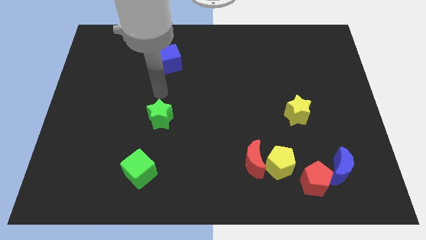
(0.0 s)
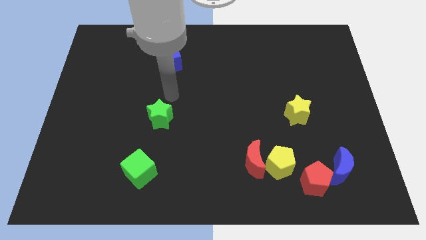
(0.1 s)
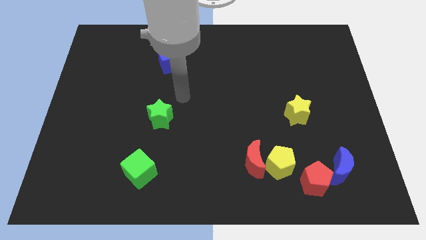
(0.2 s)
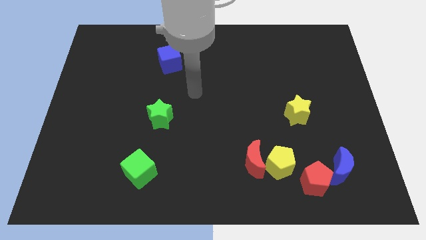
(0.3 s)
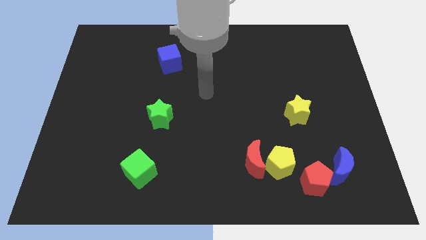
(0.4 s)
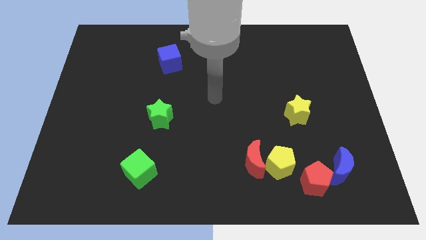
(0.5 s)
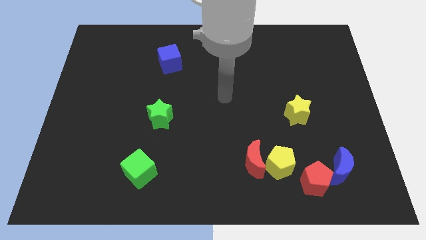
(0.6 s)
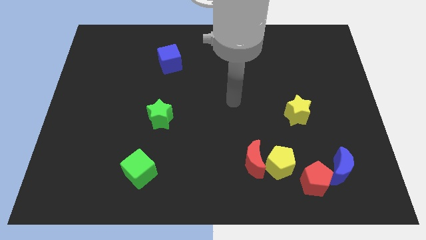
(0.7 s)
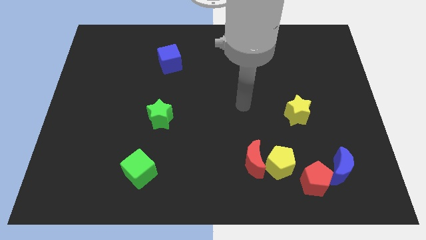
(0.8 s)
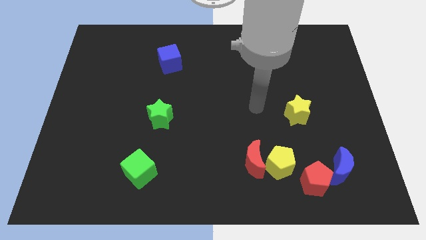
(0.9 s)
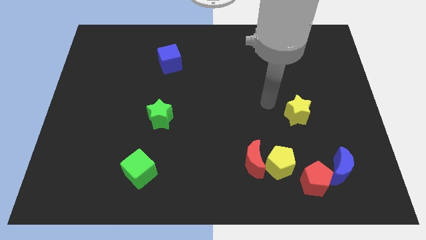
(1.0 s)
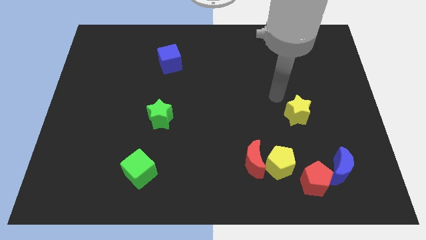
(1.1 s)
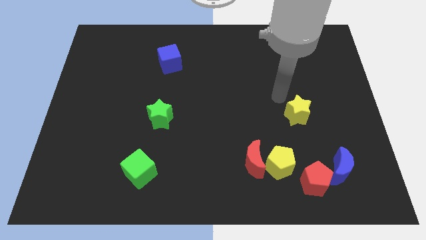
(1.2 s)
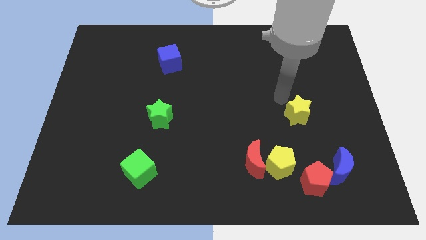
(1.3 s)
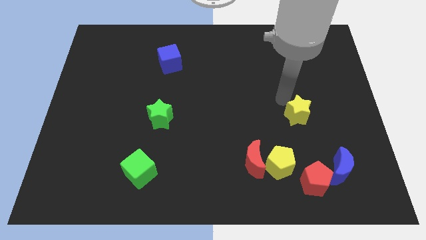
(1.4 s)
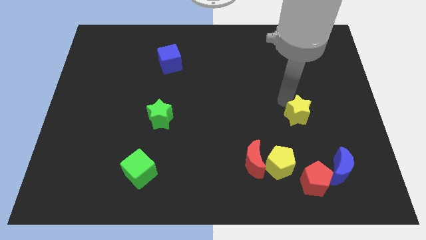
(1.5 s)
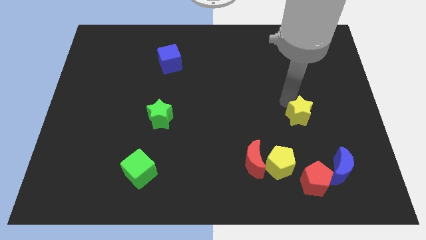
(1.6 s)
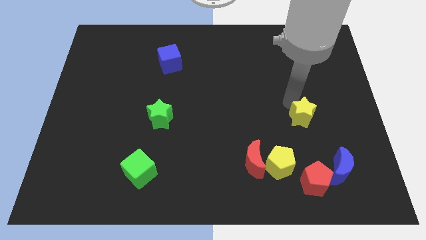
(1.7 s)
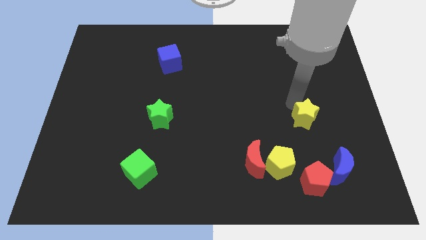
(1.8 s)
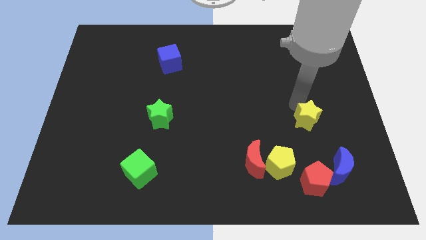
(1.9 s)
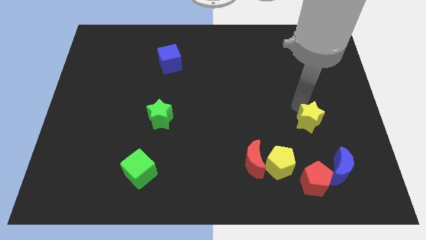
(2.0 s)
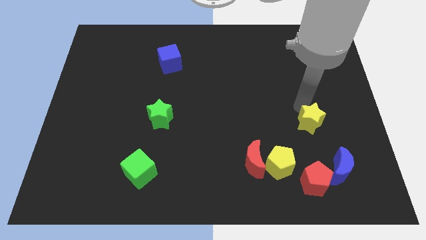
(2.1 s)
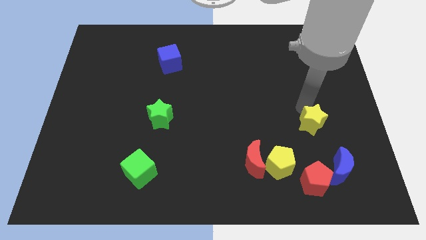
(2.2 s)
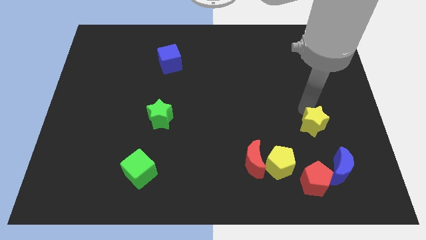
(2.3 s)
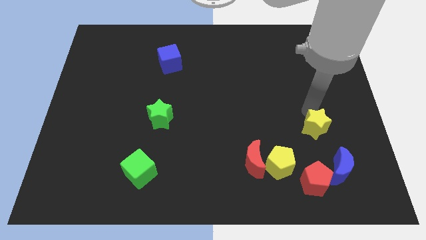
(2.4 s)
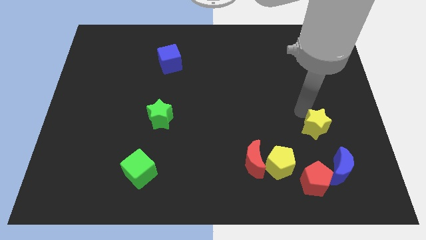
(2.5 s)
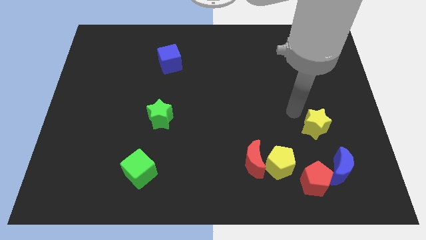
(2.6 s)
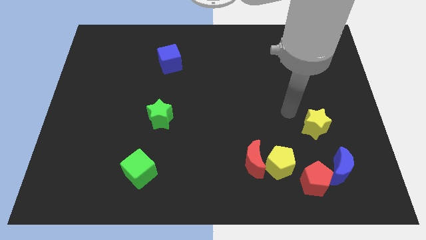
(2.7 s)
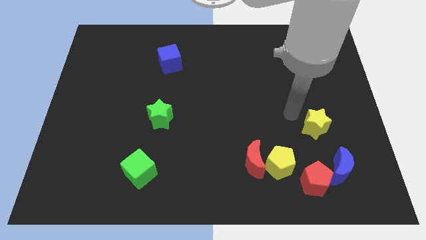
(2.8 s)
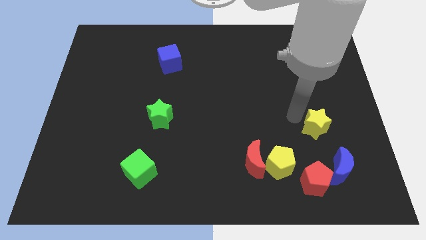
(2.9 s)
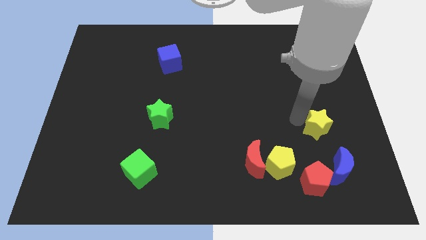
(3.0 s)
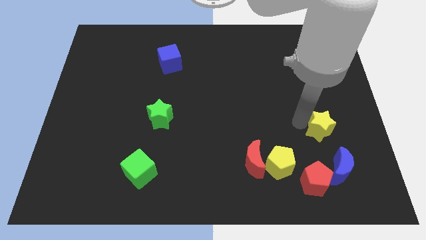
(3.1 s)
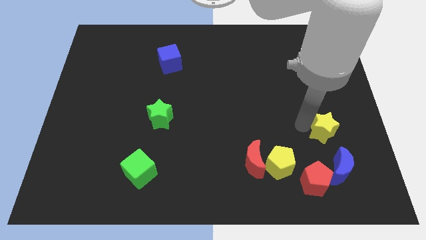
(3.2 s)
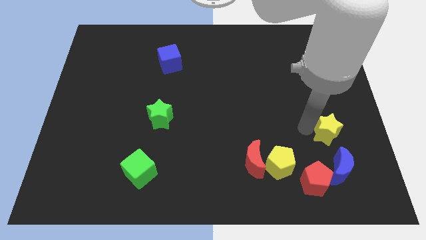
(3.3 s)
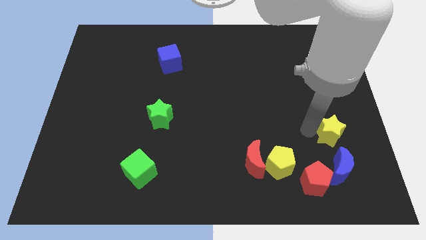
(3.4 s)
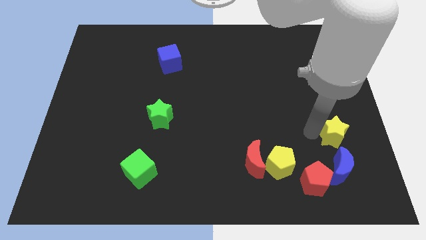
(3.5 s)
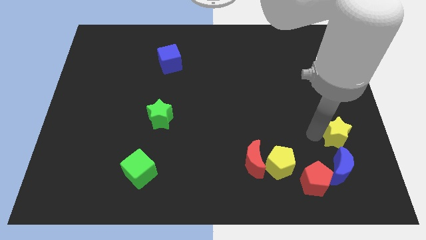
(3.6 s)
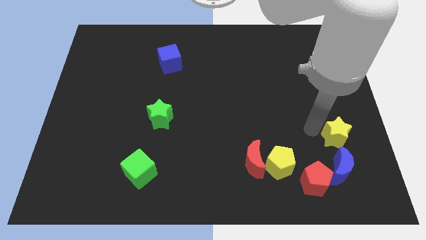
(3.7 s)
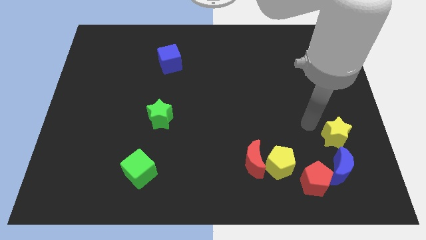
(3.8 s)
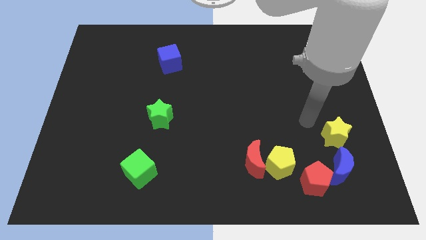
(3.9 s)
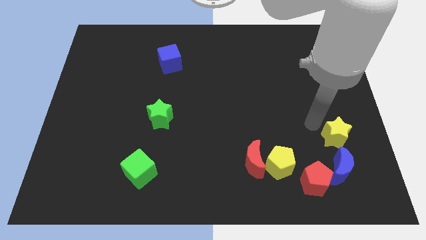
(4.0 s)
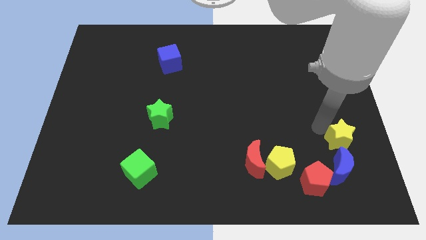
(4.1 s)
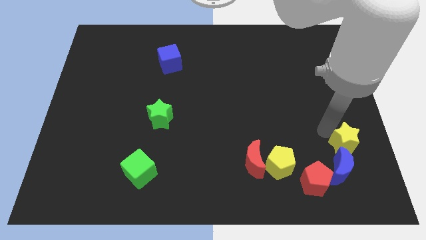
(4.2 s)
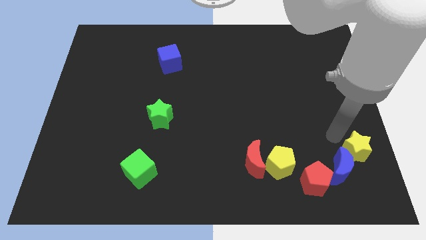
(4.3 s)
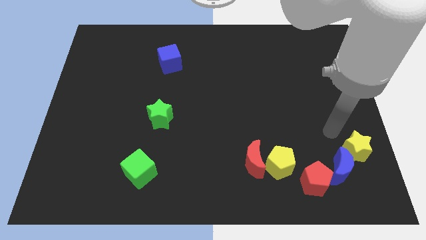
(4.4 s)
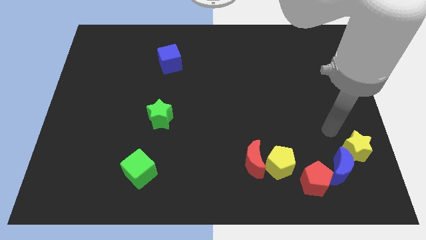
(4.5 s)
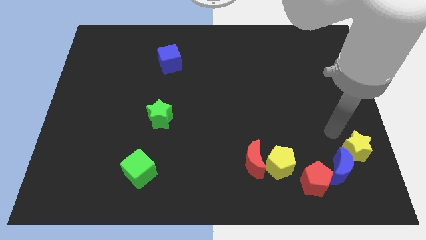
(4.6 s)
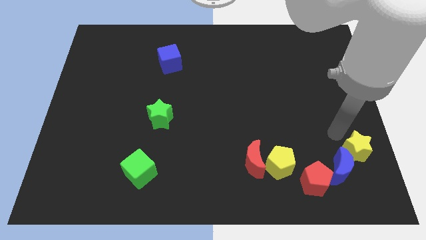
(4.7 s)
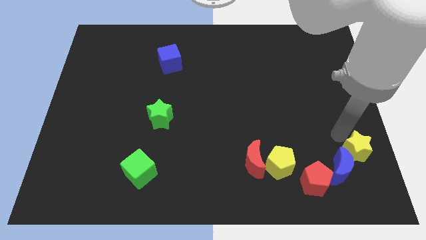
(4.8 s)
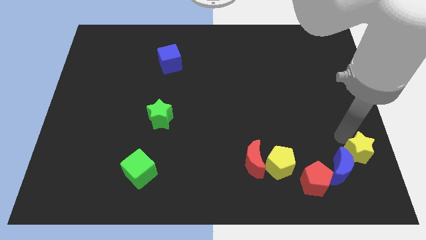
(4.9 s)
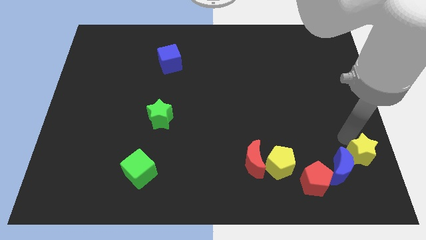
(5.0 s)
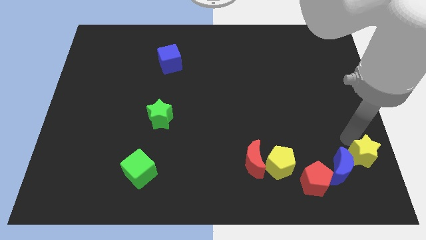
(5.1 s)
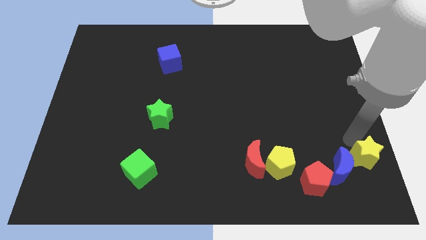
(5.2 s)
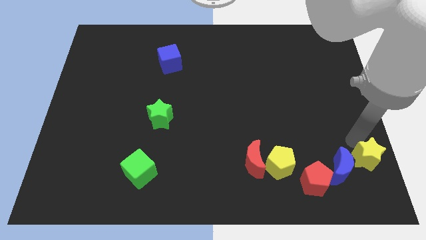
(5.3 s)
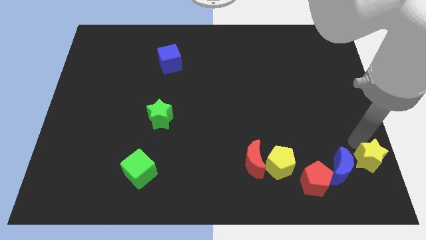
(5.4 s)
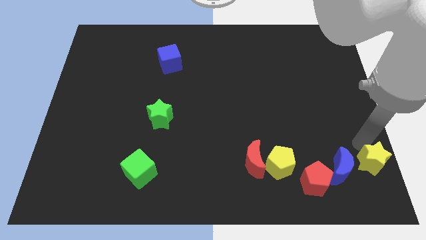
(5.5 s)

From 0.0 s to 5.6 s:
put the yellow star to the bottom right of the board

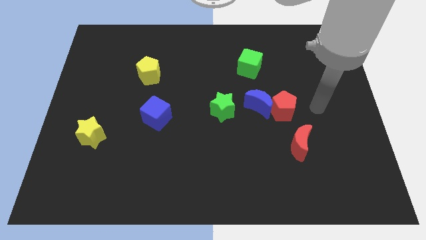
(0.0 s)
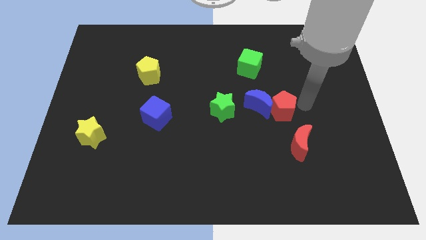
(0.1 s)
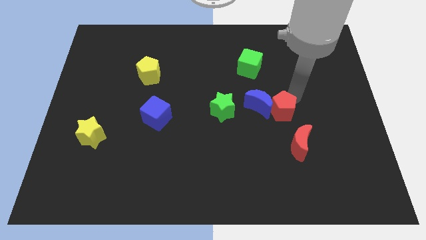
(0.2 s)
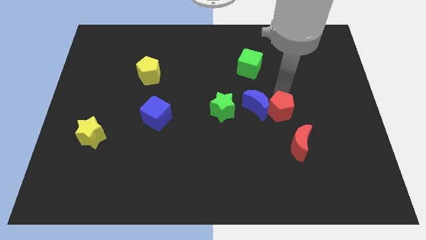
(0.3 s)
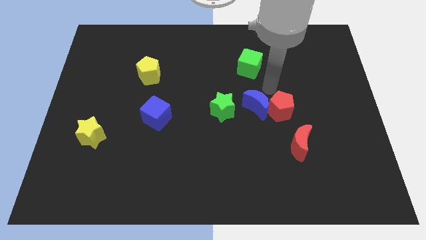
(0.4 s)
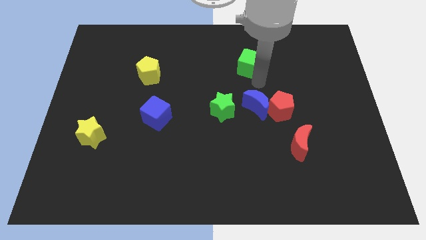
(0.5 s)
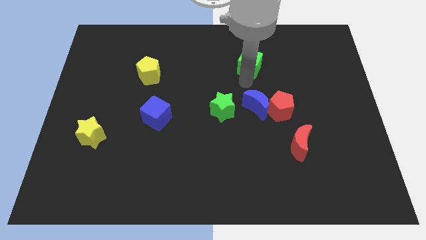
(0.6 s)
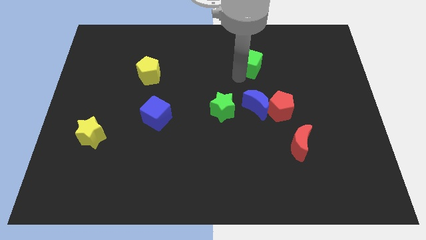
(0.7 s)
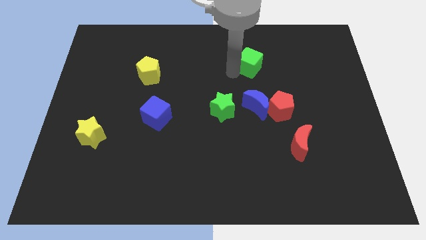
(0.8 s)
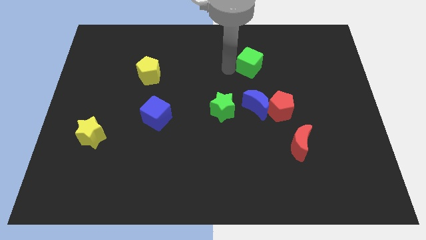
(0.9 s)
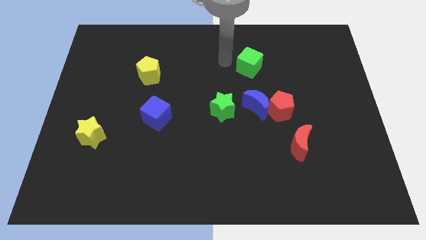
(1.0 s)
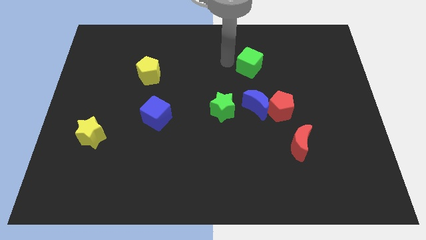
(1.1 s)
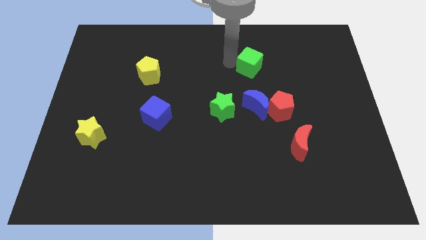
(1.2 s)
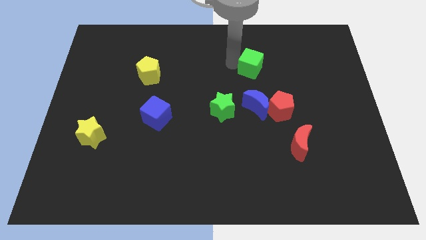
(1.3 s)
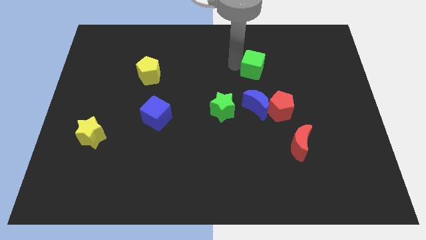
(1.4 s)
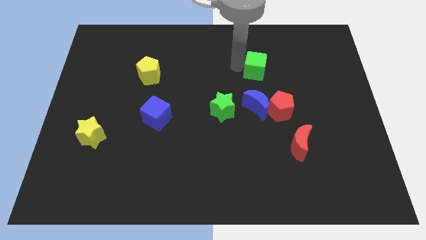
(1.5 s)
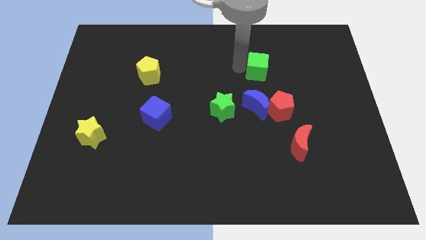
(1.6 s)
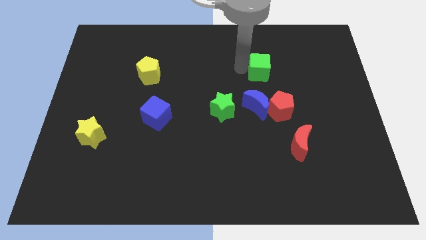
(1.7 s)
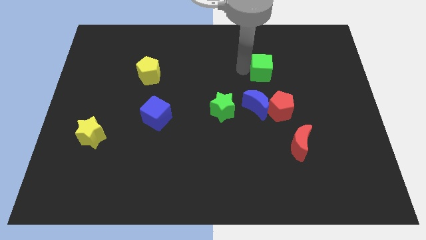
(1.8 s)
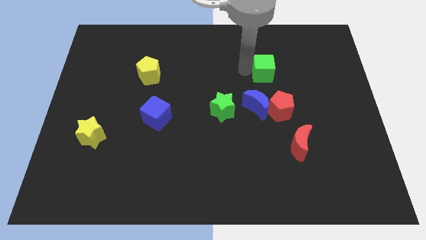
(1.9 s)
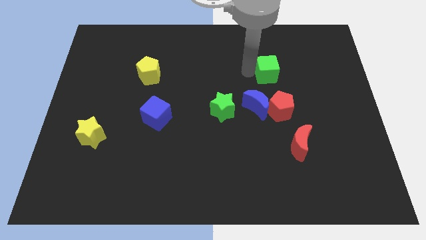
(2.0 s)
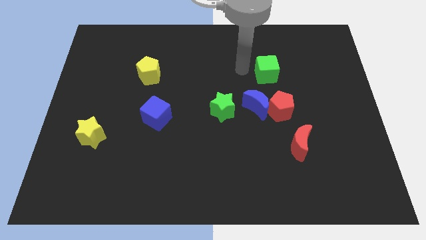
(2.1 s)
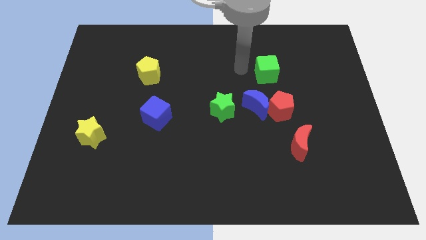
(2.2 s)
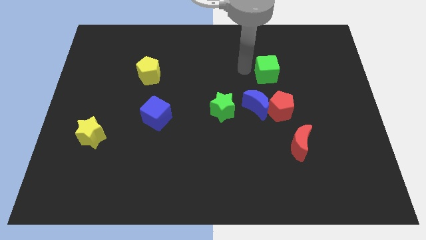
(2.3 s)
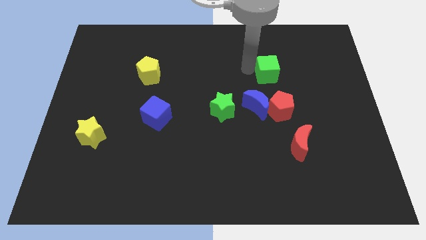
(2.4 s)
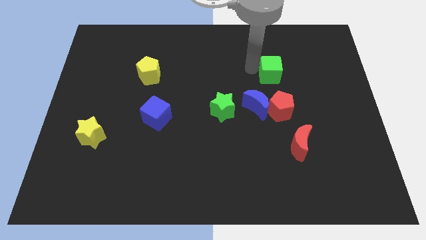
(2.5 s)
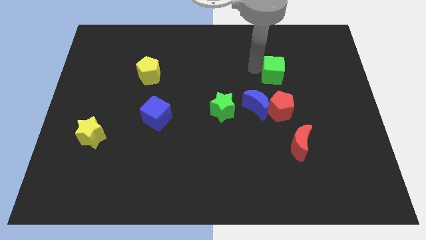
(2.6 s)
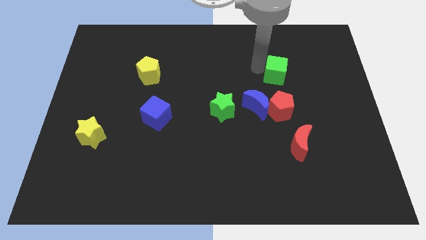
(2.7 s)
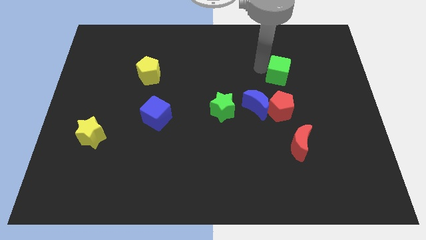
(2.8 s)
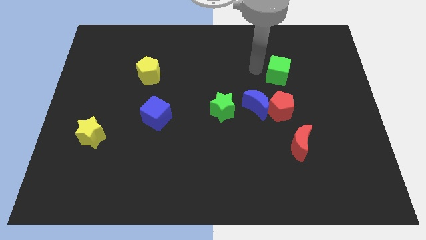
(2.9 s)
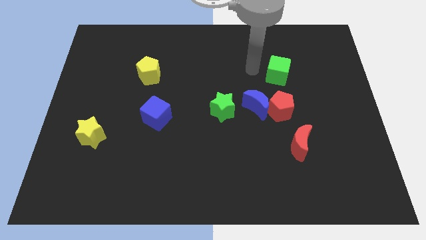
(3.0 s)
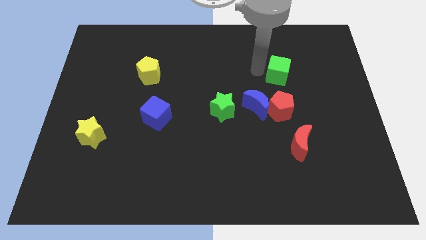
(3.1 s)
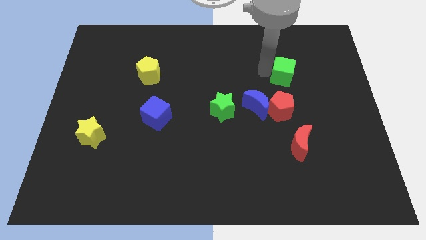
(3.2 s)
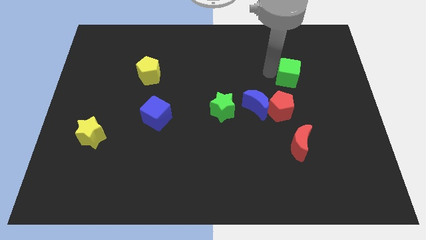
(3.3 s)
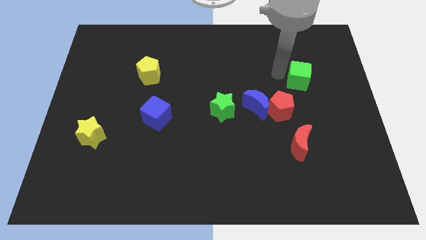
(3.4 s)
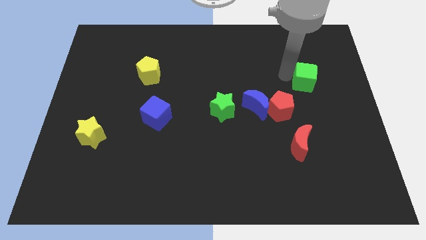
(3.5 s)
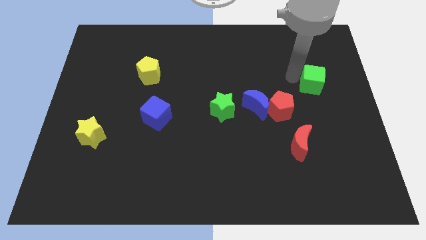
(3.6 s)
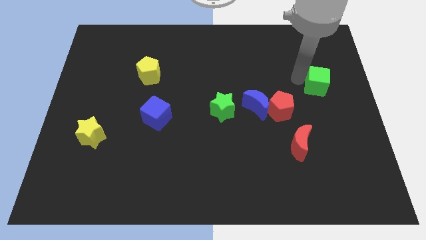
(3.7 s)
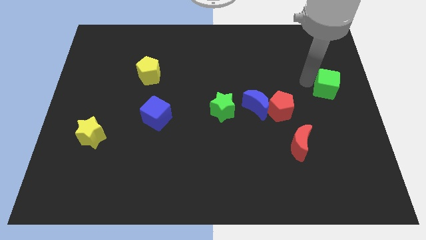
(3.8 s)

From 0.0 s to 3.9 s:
slide the green cube to the right side
